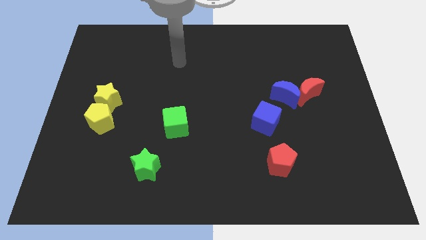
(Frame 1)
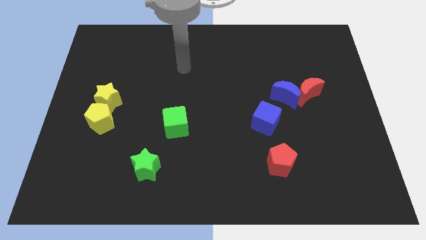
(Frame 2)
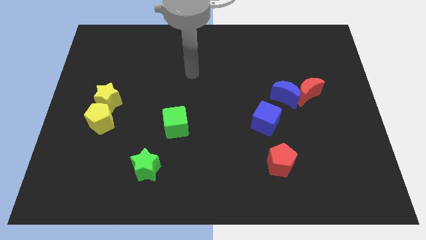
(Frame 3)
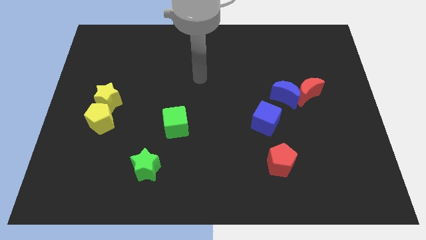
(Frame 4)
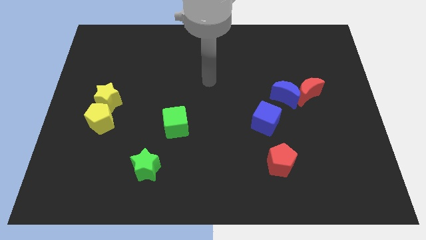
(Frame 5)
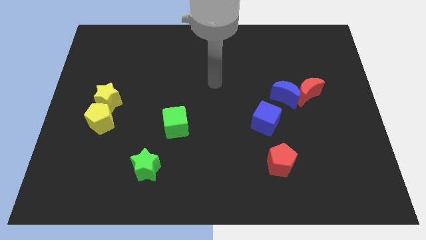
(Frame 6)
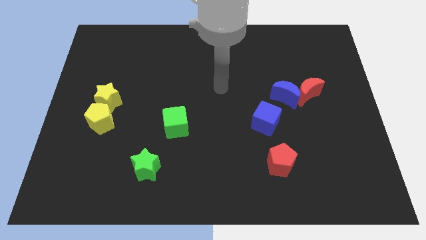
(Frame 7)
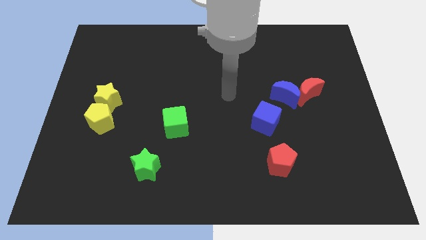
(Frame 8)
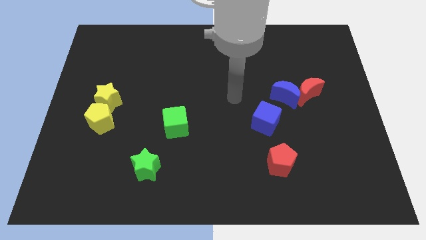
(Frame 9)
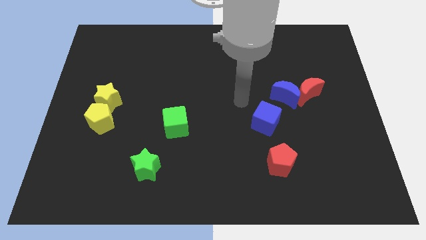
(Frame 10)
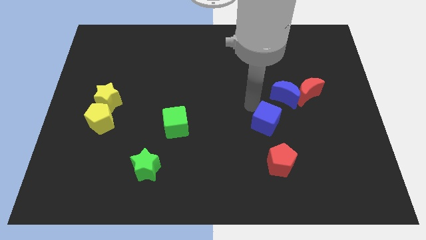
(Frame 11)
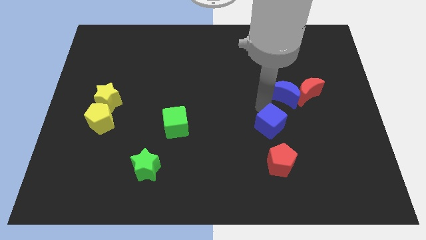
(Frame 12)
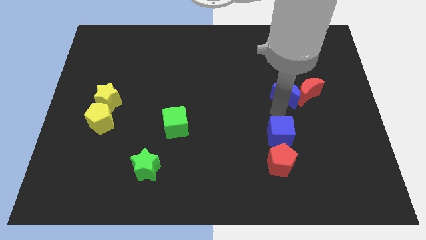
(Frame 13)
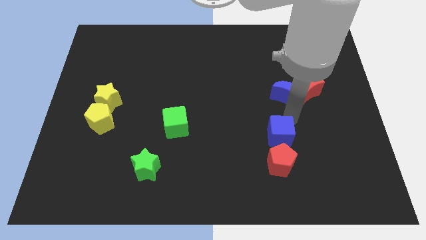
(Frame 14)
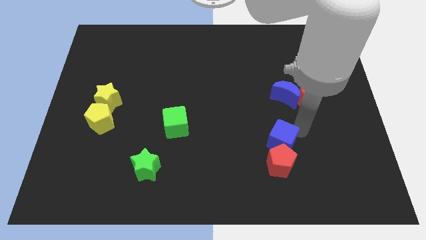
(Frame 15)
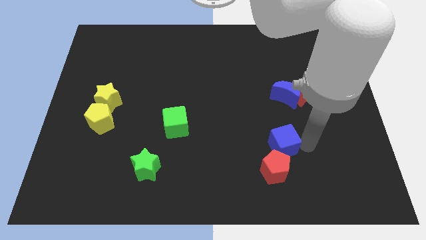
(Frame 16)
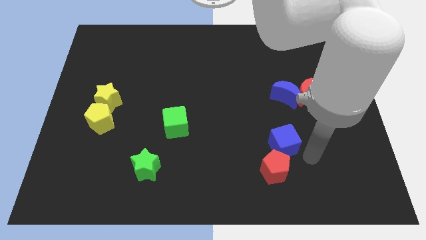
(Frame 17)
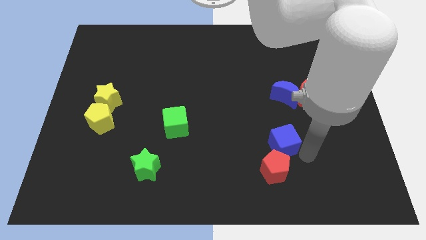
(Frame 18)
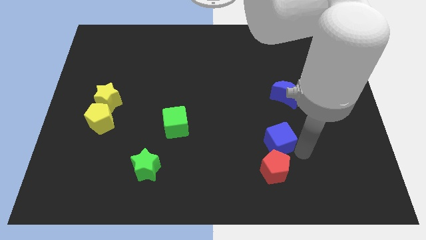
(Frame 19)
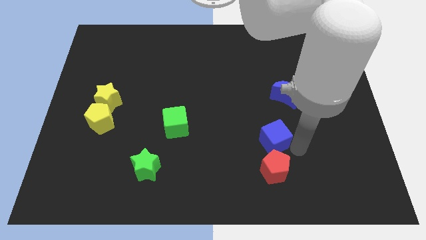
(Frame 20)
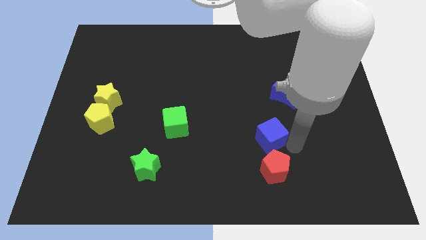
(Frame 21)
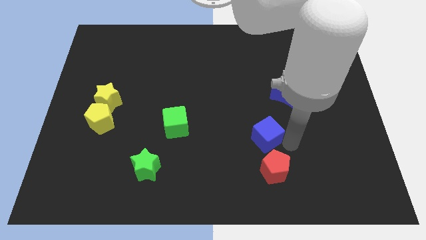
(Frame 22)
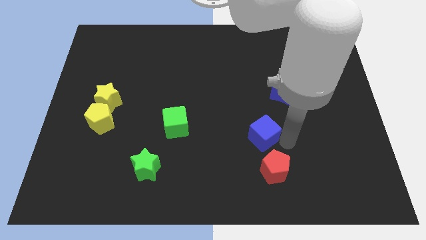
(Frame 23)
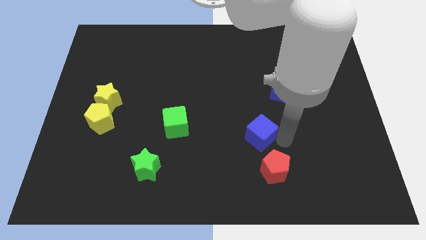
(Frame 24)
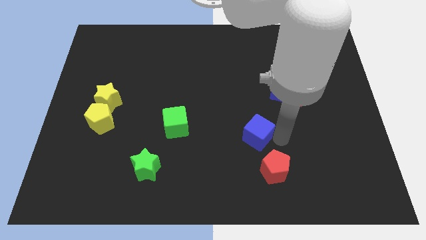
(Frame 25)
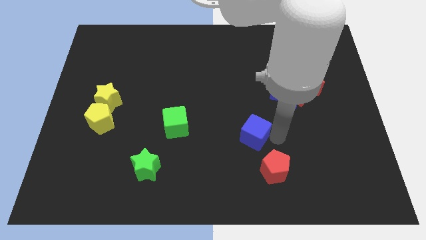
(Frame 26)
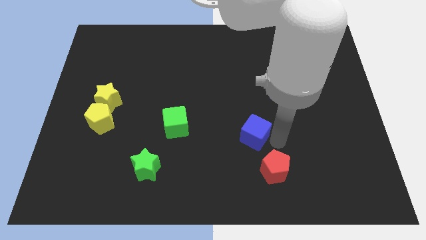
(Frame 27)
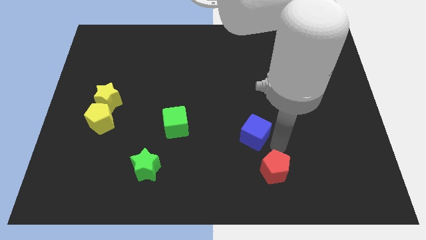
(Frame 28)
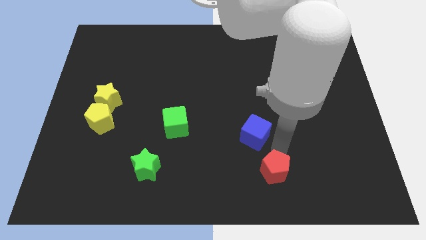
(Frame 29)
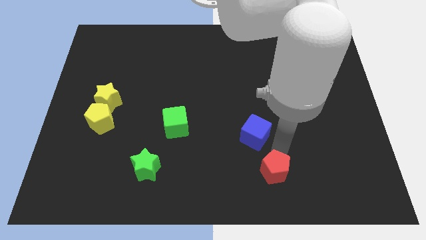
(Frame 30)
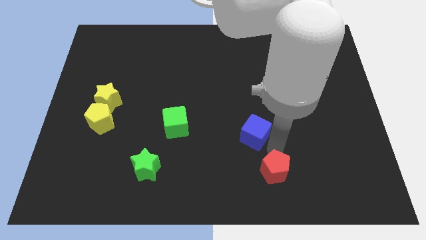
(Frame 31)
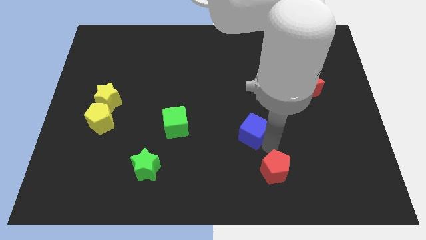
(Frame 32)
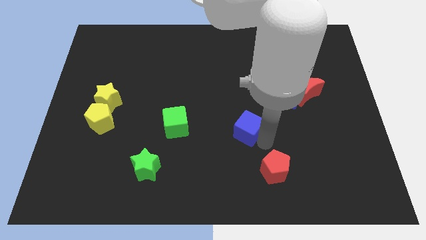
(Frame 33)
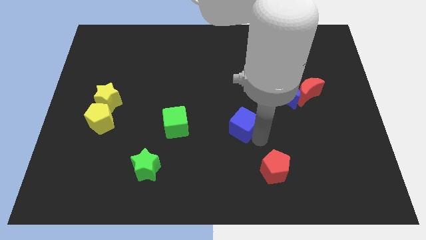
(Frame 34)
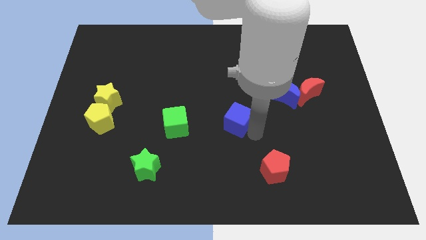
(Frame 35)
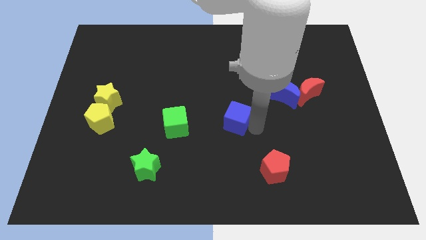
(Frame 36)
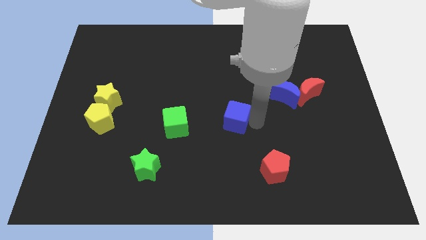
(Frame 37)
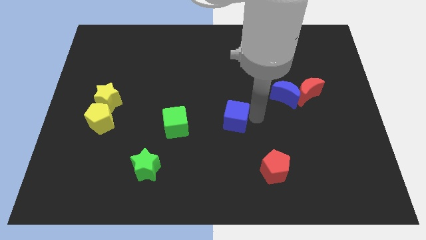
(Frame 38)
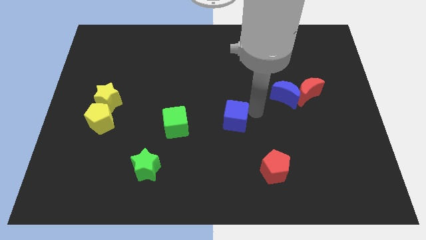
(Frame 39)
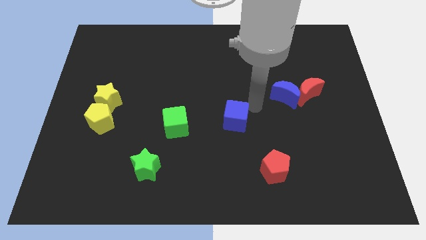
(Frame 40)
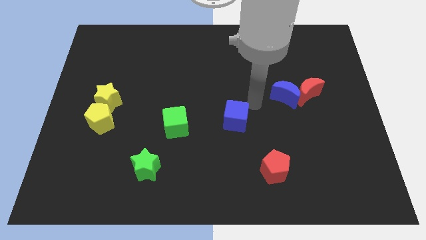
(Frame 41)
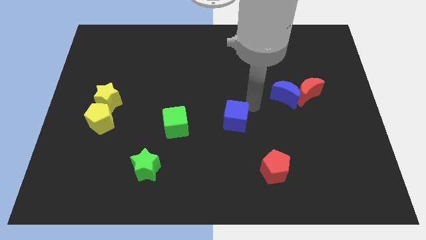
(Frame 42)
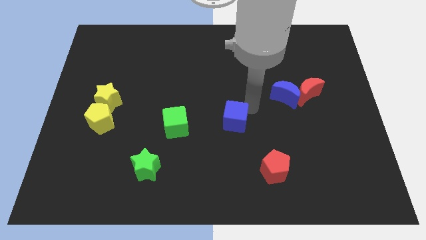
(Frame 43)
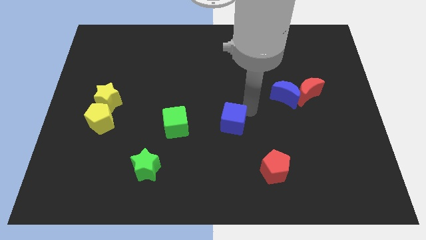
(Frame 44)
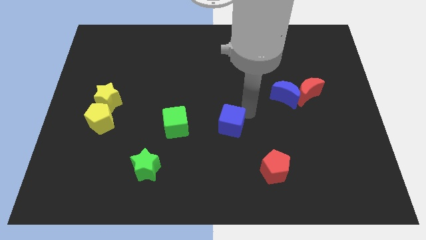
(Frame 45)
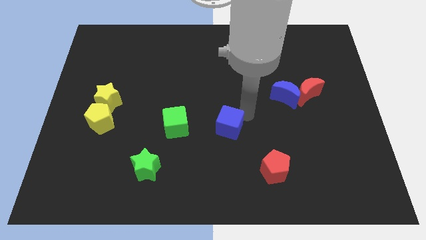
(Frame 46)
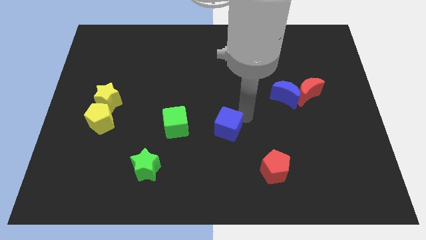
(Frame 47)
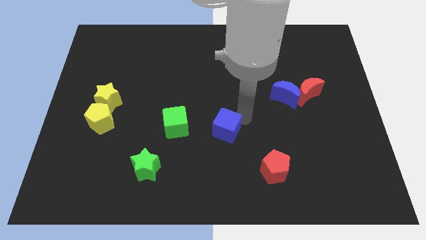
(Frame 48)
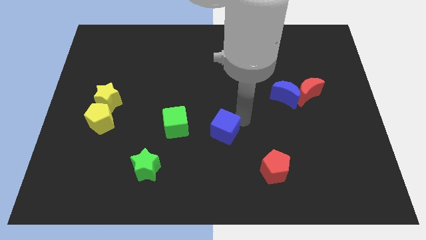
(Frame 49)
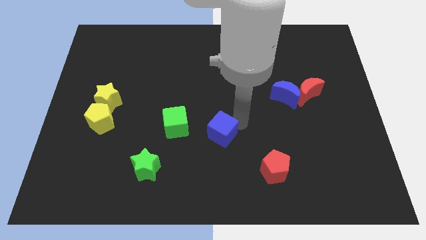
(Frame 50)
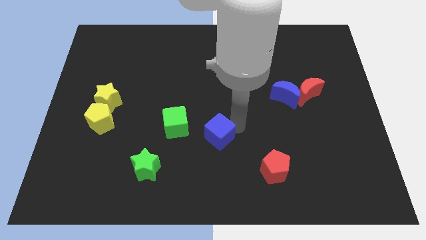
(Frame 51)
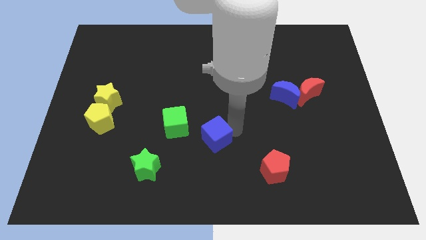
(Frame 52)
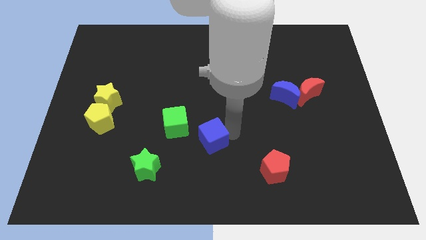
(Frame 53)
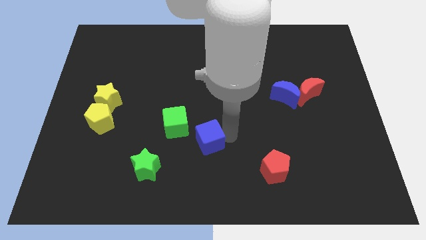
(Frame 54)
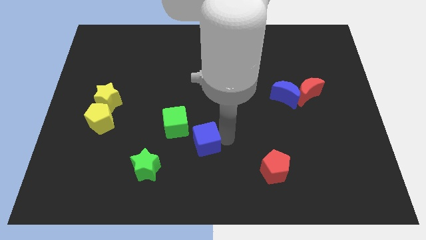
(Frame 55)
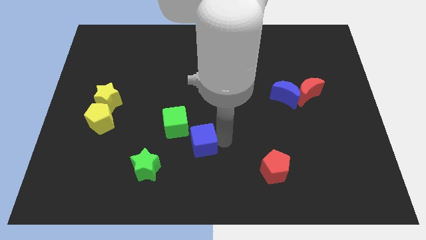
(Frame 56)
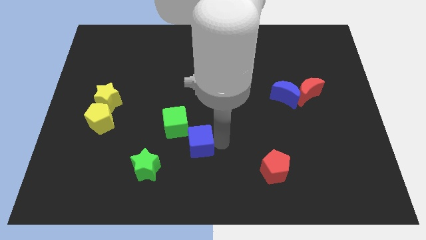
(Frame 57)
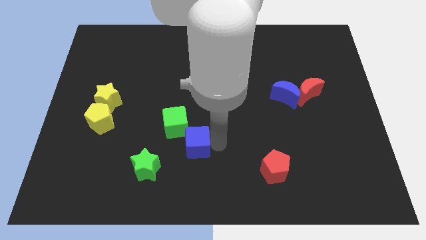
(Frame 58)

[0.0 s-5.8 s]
push the blue cube diagonally up and to the right of the green star

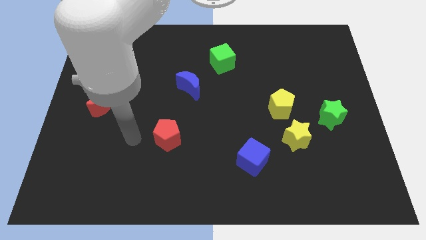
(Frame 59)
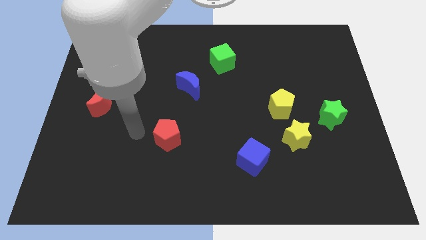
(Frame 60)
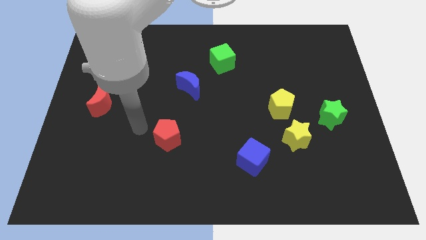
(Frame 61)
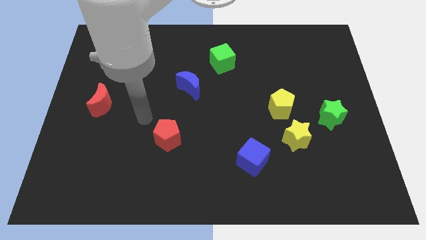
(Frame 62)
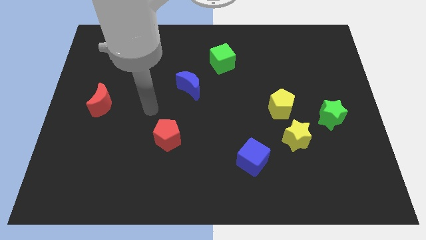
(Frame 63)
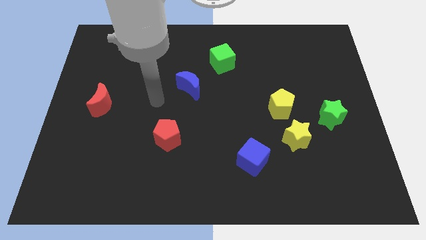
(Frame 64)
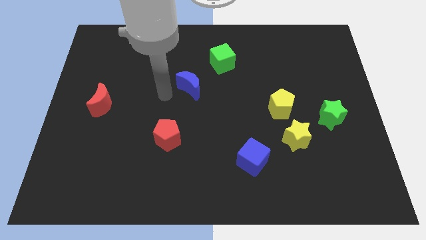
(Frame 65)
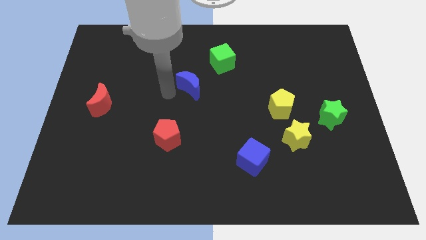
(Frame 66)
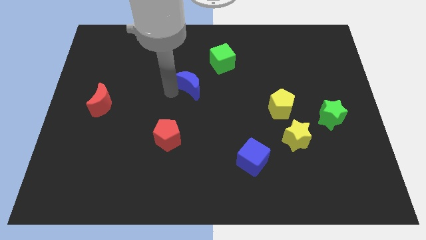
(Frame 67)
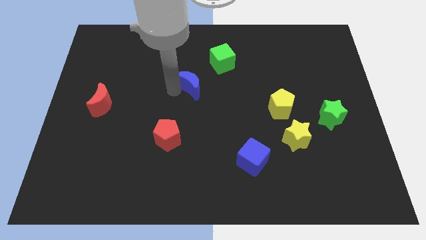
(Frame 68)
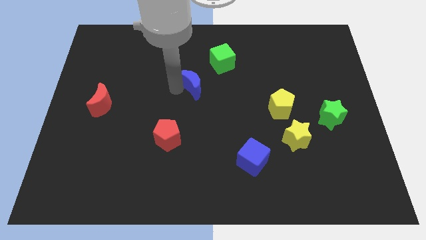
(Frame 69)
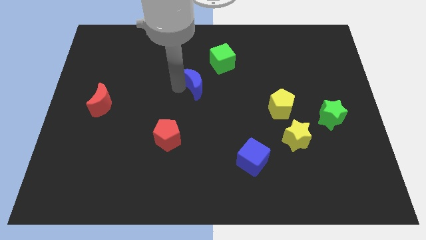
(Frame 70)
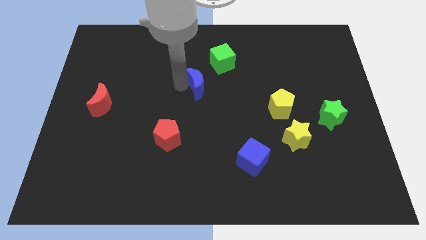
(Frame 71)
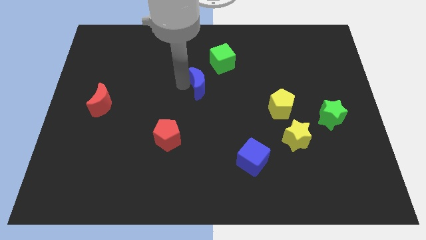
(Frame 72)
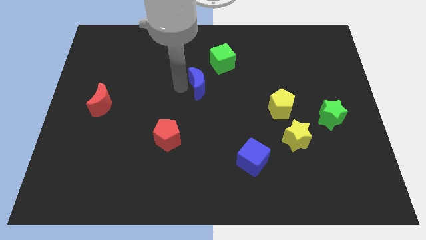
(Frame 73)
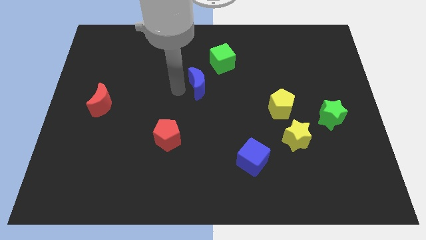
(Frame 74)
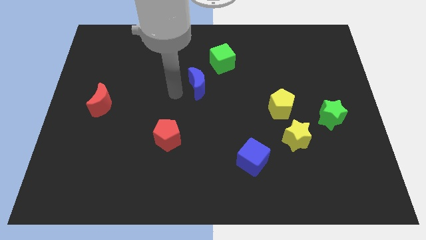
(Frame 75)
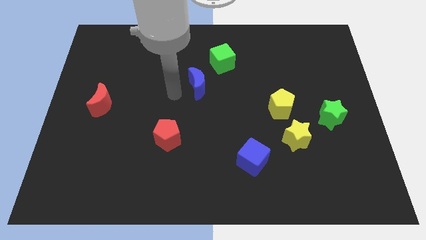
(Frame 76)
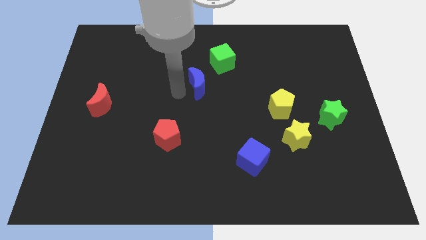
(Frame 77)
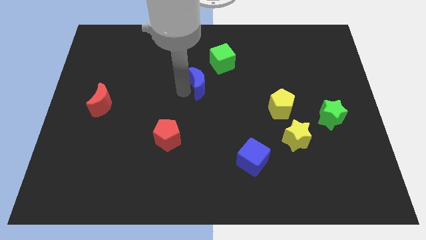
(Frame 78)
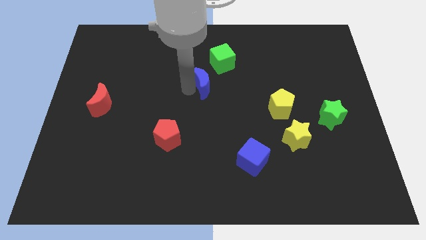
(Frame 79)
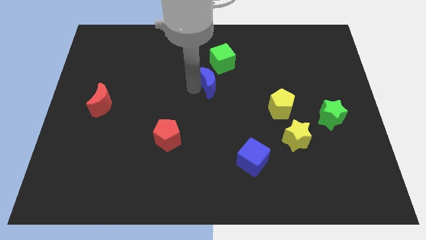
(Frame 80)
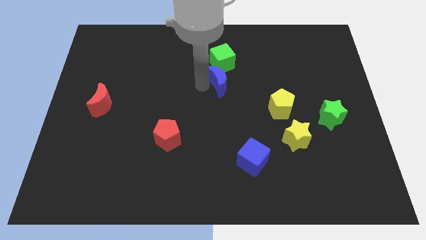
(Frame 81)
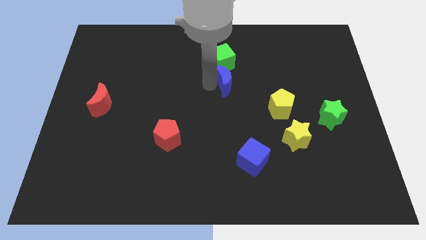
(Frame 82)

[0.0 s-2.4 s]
push the blue moon to the bottom right side of the green cube
